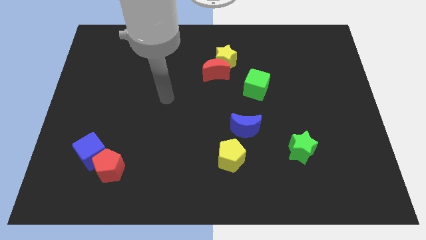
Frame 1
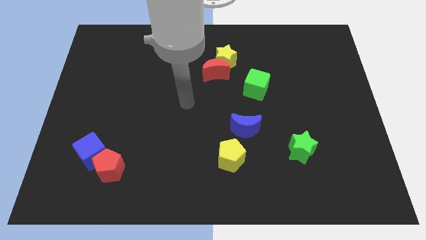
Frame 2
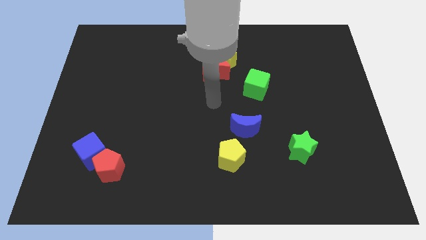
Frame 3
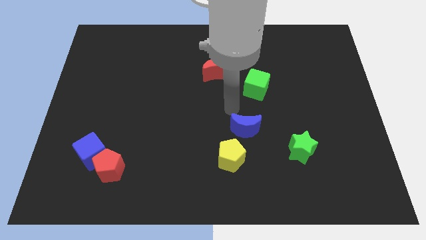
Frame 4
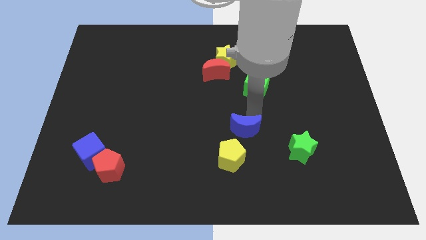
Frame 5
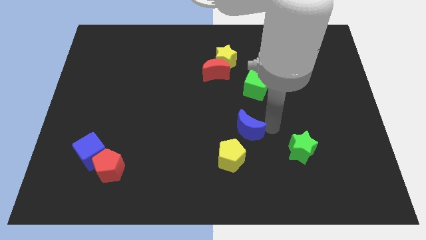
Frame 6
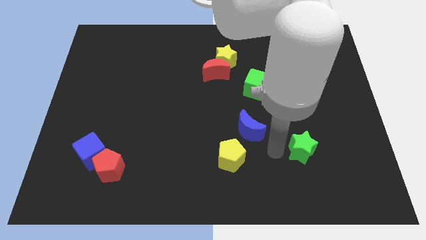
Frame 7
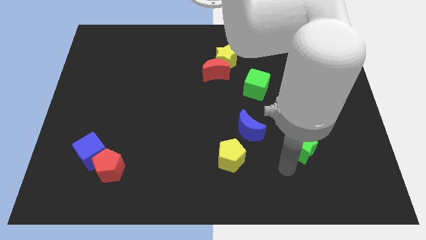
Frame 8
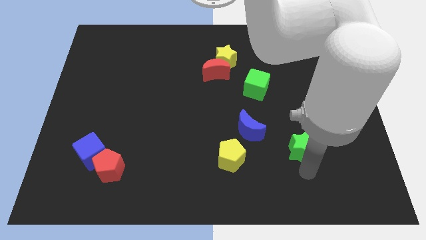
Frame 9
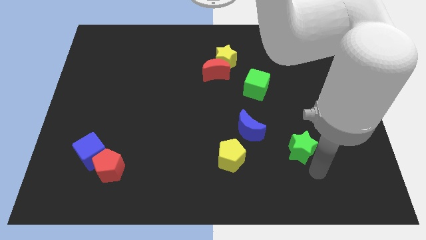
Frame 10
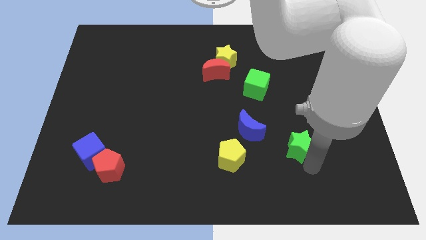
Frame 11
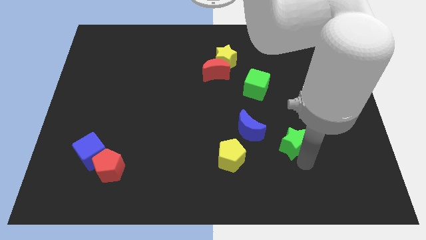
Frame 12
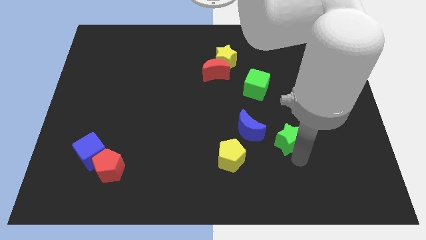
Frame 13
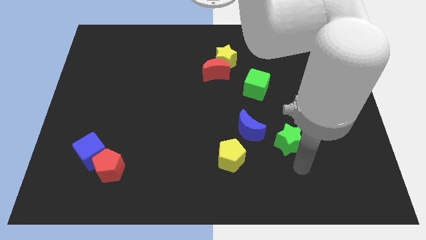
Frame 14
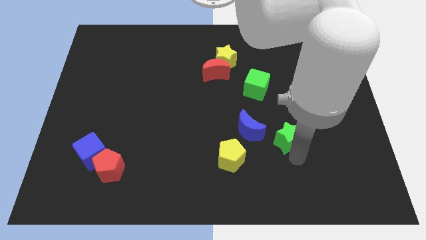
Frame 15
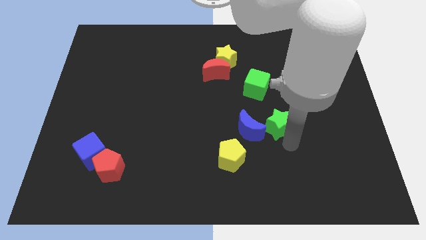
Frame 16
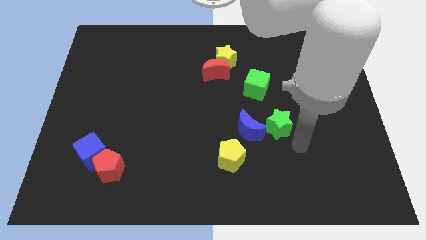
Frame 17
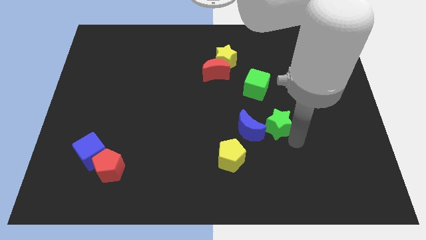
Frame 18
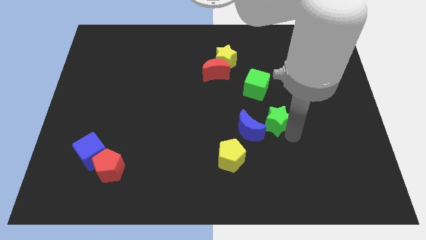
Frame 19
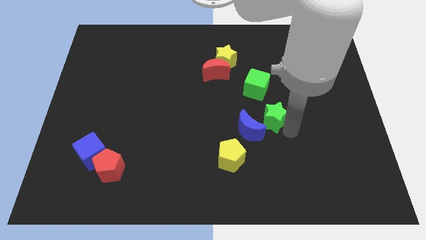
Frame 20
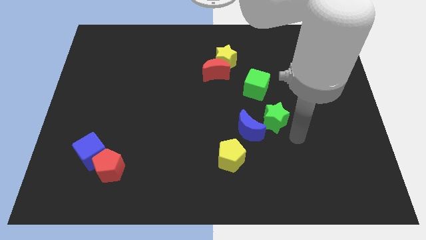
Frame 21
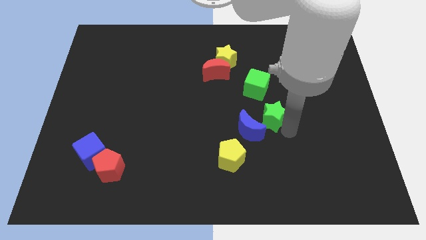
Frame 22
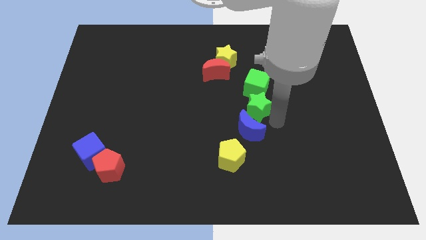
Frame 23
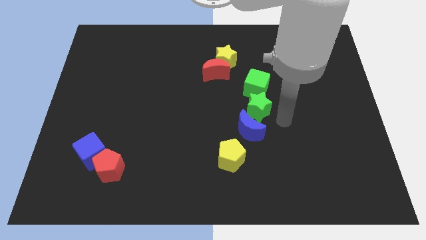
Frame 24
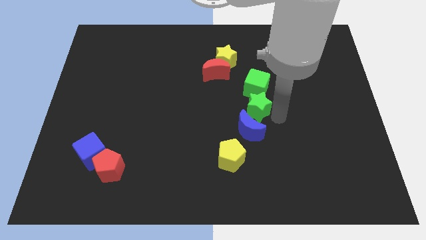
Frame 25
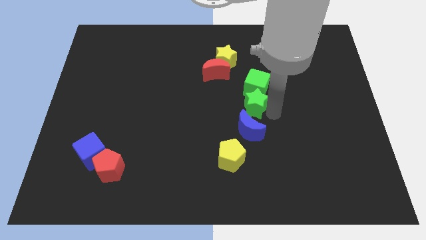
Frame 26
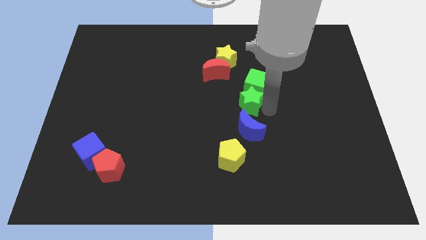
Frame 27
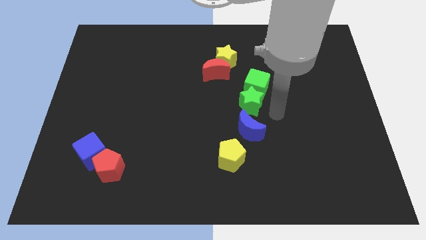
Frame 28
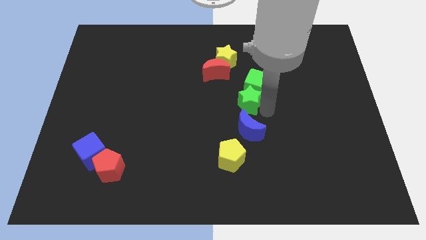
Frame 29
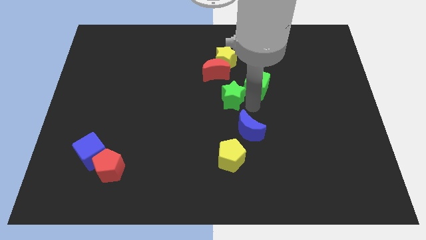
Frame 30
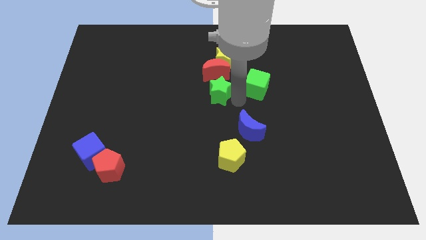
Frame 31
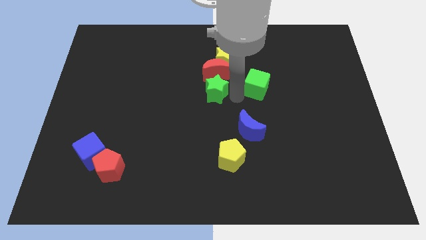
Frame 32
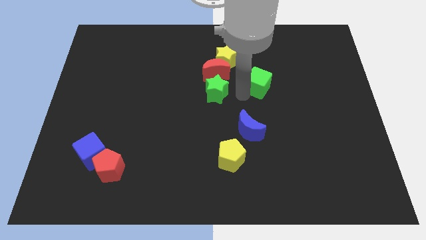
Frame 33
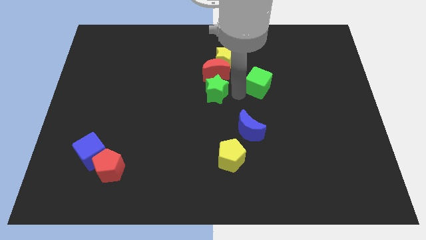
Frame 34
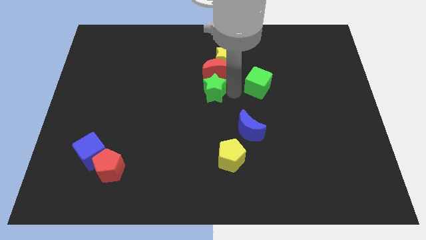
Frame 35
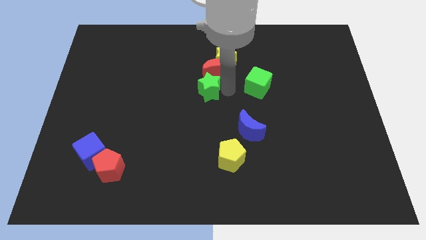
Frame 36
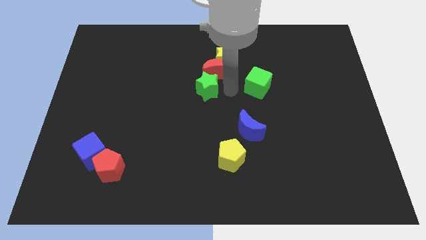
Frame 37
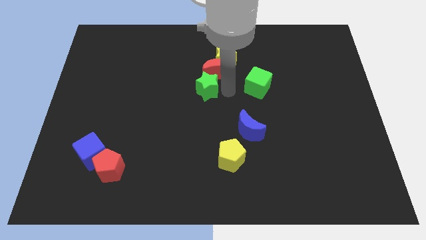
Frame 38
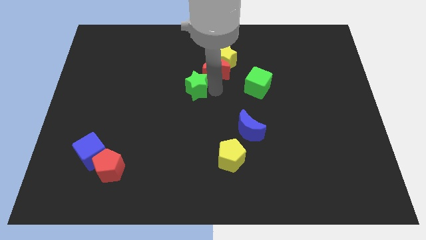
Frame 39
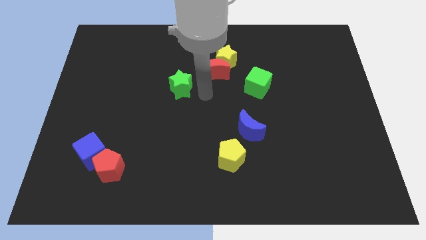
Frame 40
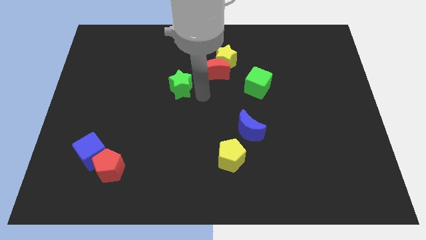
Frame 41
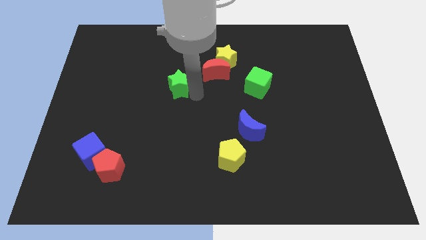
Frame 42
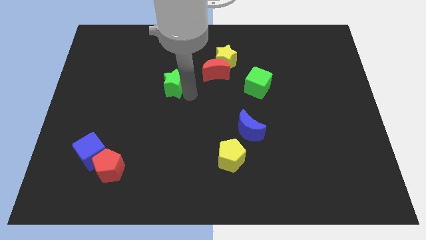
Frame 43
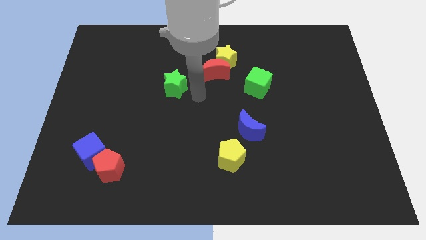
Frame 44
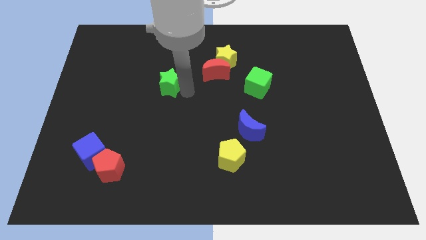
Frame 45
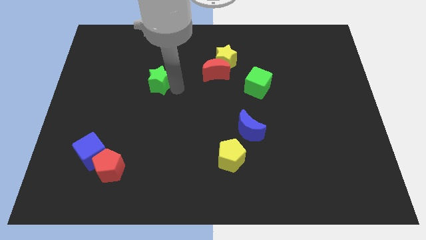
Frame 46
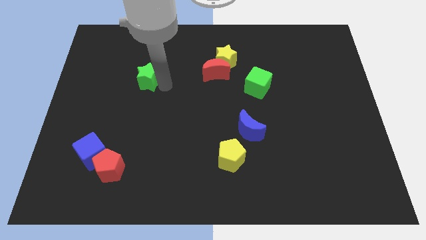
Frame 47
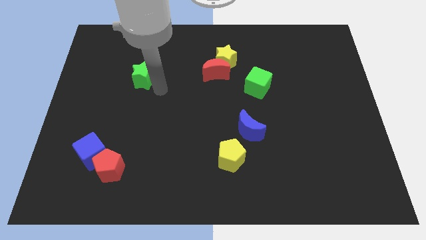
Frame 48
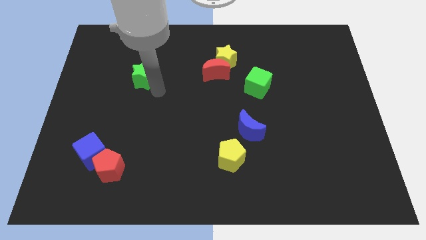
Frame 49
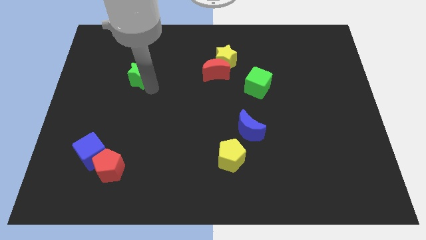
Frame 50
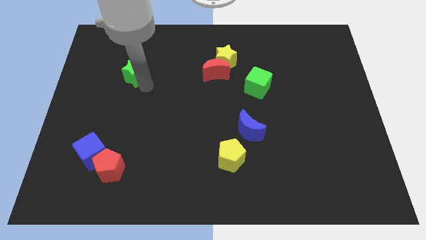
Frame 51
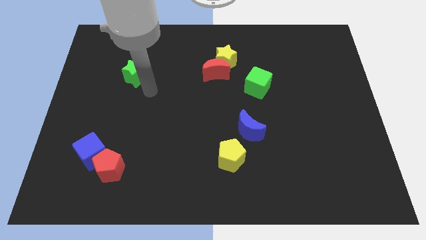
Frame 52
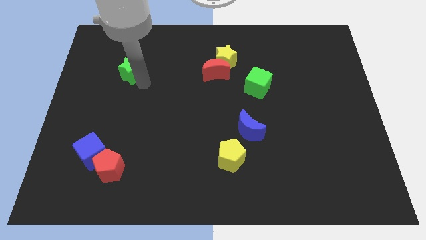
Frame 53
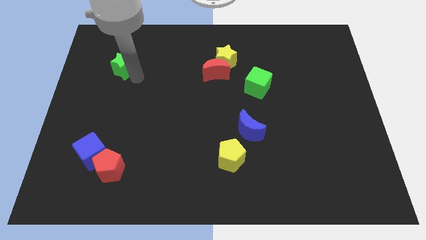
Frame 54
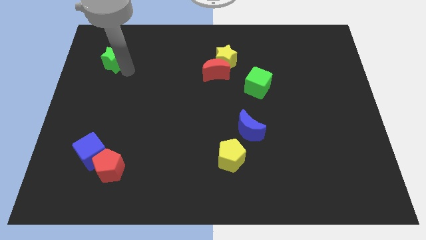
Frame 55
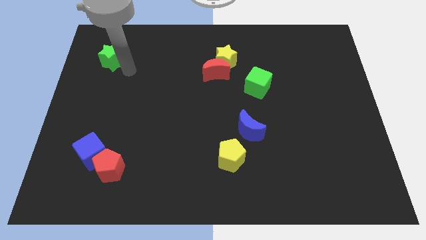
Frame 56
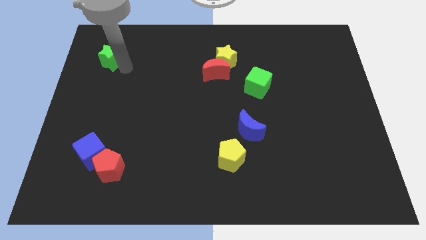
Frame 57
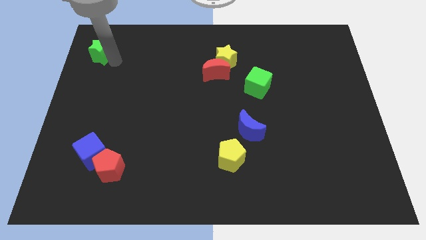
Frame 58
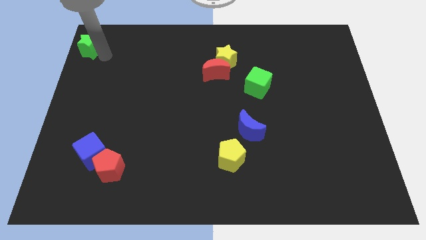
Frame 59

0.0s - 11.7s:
slide the green star to the top left of the board
